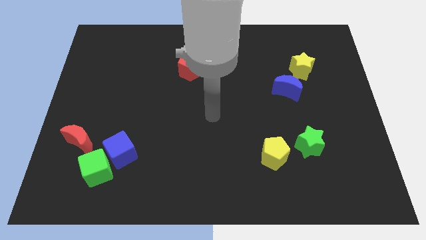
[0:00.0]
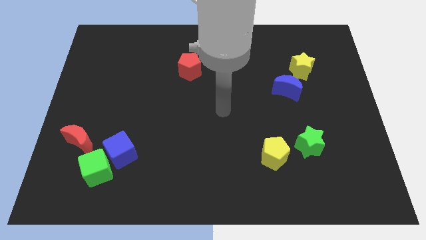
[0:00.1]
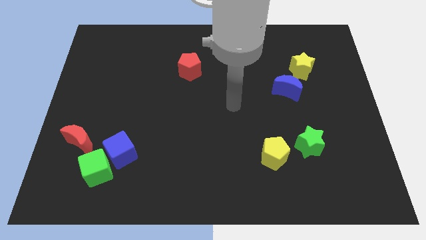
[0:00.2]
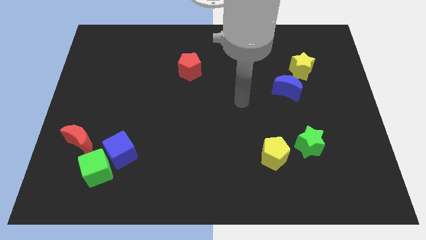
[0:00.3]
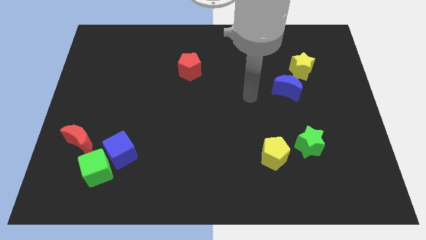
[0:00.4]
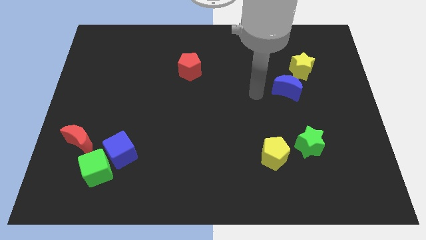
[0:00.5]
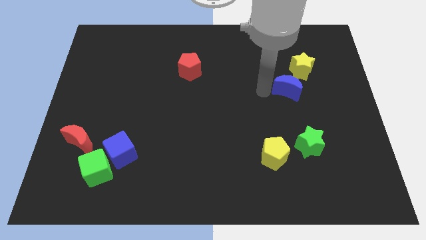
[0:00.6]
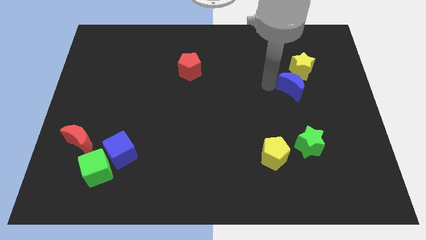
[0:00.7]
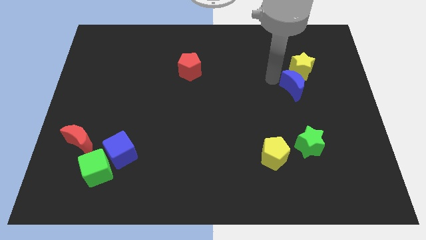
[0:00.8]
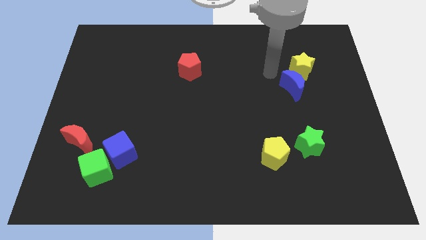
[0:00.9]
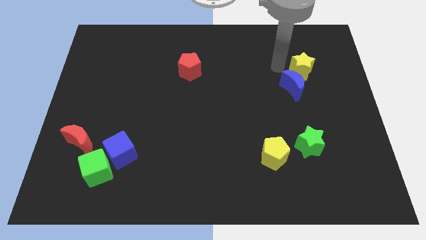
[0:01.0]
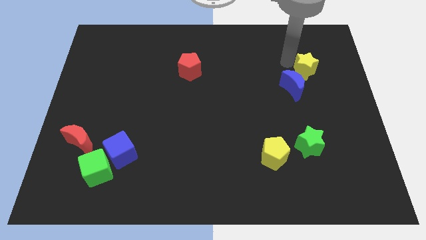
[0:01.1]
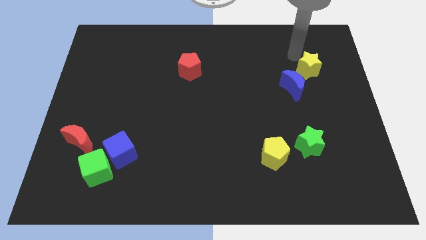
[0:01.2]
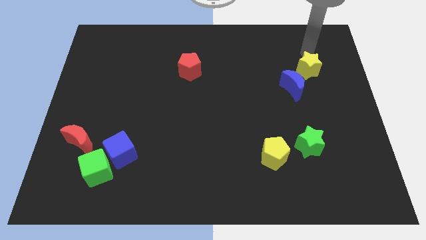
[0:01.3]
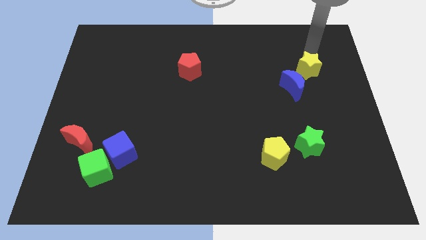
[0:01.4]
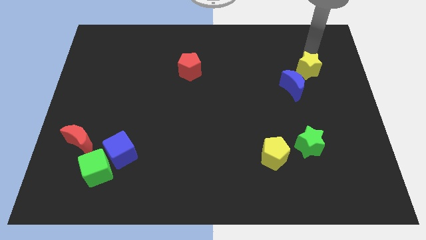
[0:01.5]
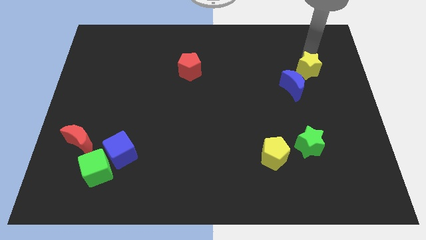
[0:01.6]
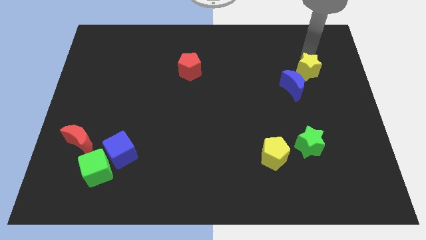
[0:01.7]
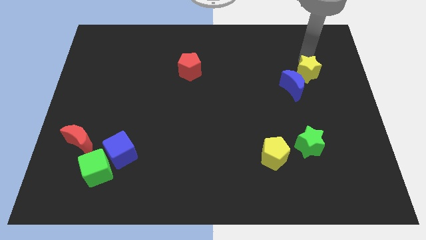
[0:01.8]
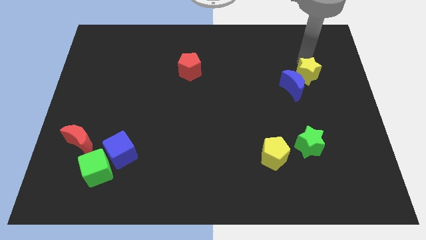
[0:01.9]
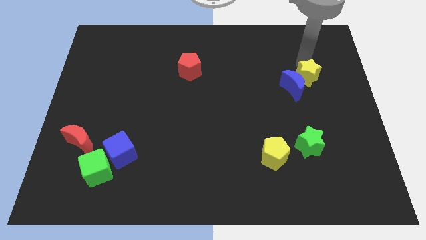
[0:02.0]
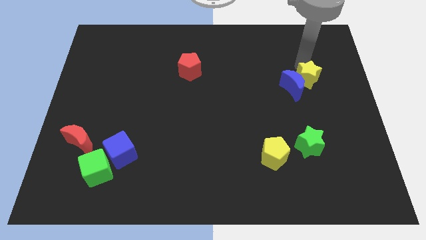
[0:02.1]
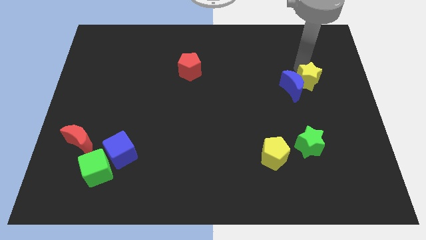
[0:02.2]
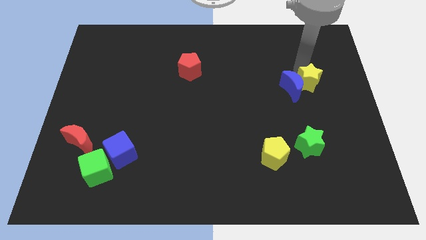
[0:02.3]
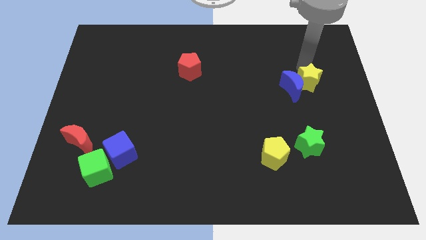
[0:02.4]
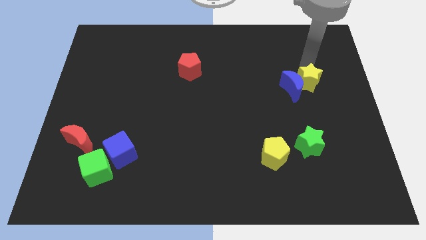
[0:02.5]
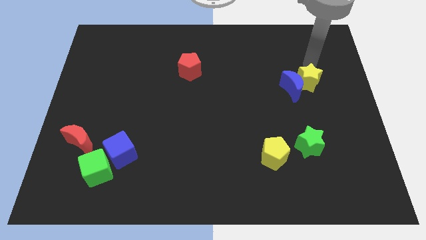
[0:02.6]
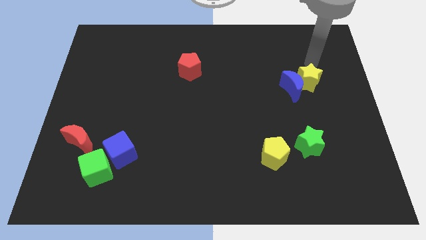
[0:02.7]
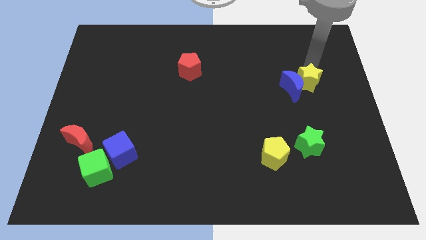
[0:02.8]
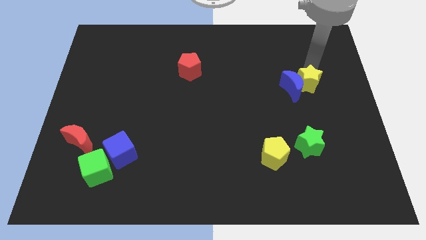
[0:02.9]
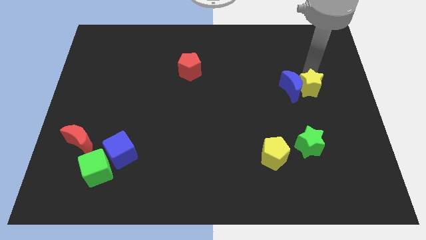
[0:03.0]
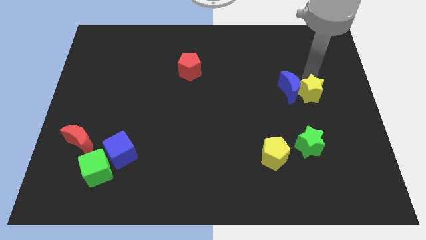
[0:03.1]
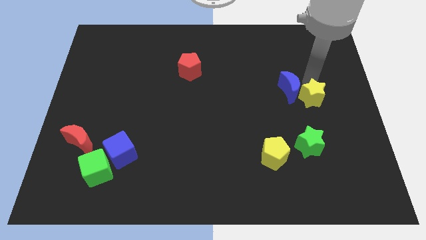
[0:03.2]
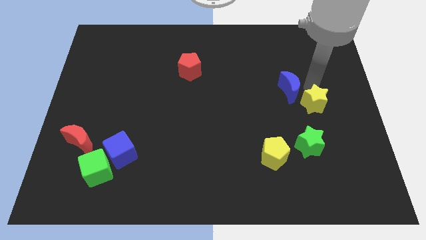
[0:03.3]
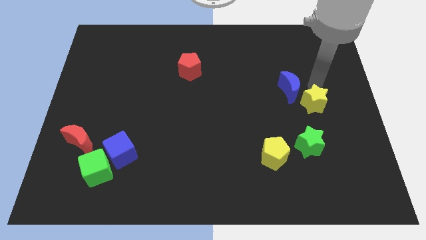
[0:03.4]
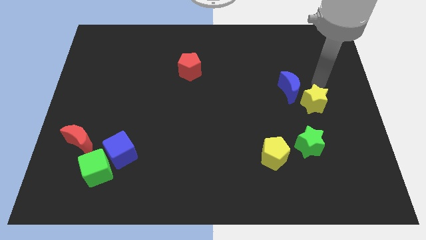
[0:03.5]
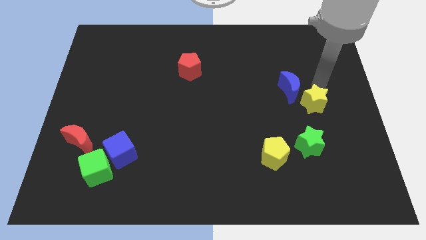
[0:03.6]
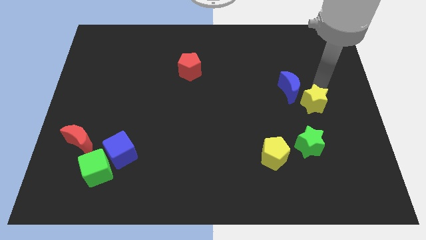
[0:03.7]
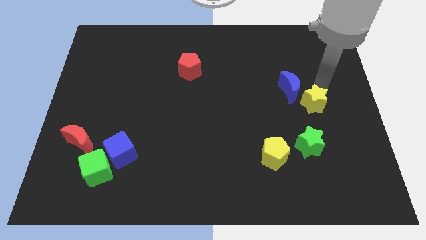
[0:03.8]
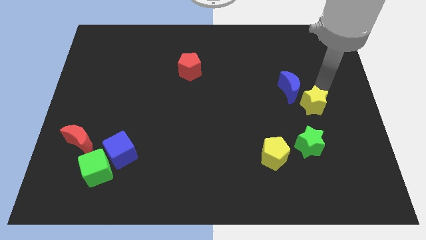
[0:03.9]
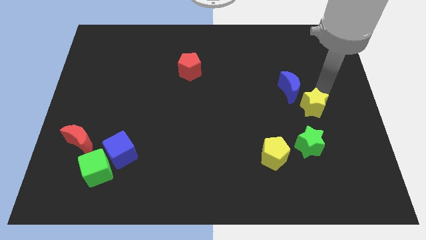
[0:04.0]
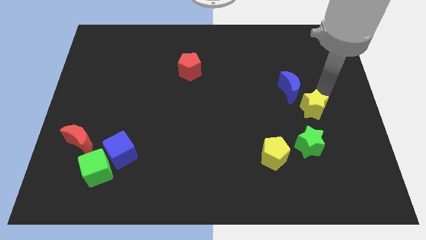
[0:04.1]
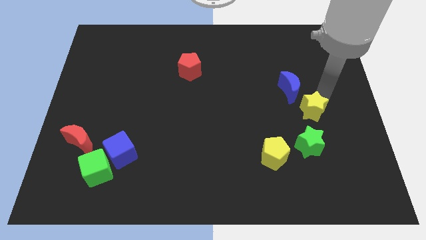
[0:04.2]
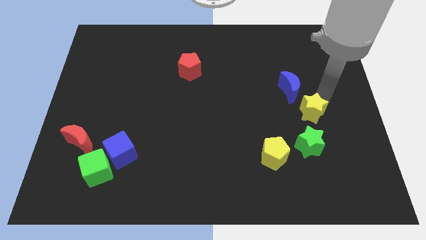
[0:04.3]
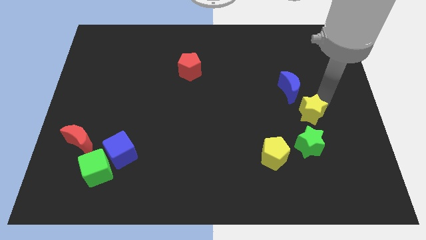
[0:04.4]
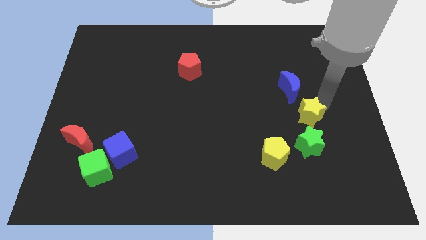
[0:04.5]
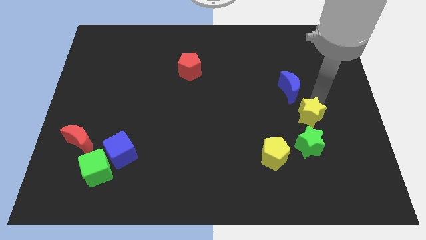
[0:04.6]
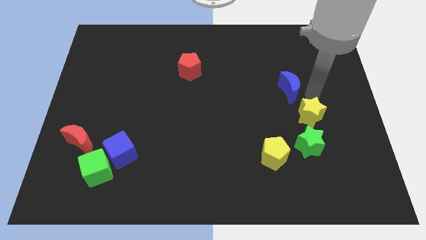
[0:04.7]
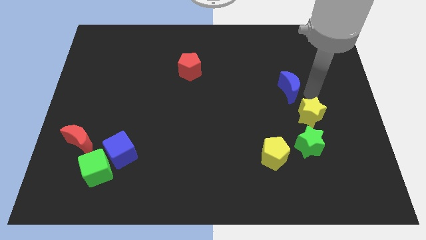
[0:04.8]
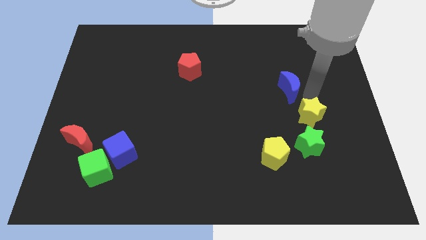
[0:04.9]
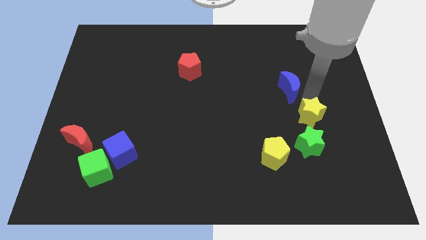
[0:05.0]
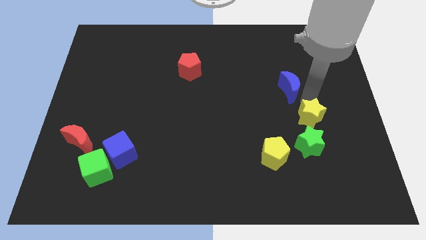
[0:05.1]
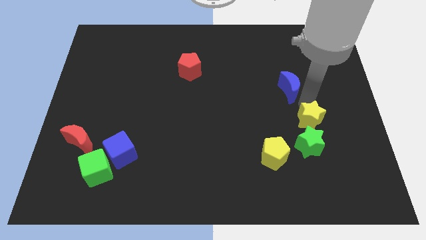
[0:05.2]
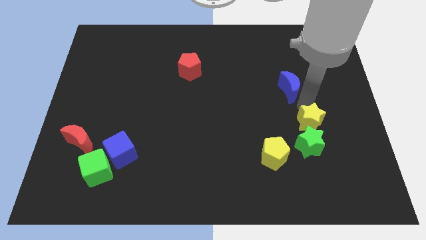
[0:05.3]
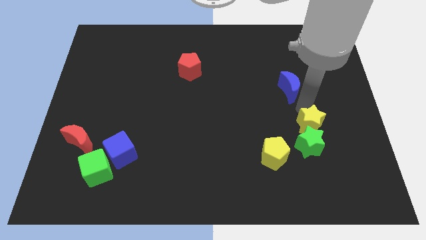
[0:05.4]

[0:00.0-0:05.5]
put the yellow star towards the green star

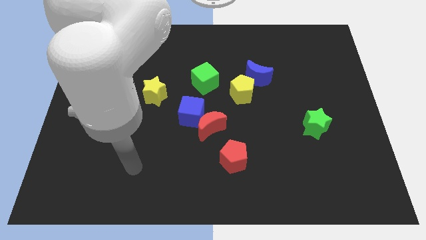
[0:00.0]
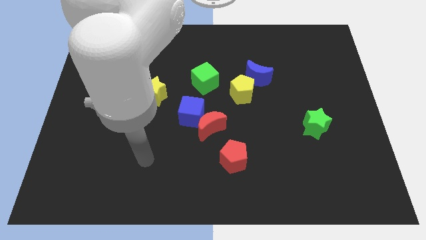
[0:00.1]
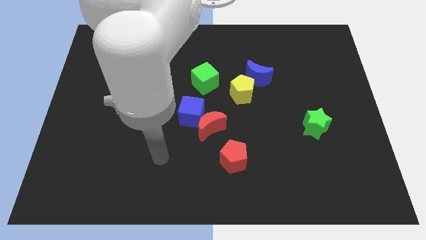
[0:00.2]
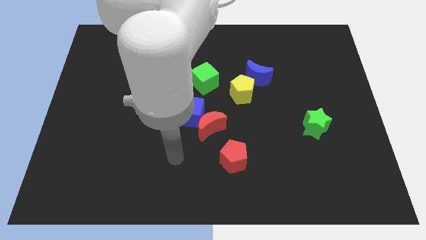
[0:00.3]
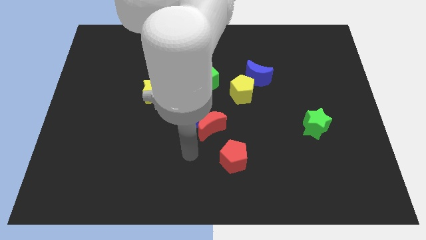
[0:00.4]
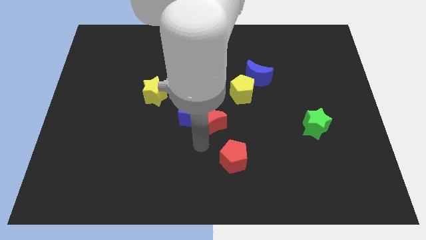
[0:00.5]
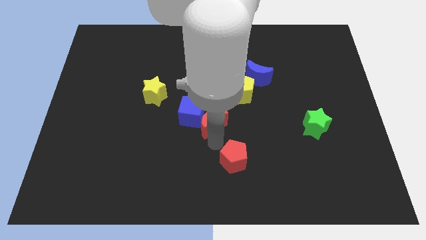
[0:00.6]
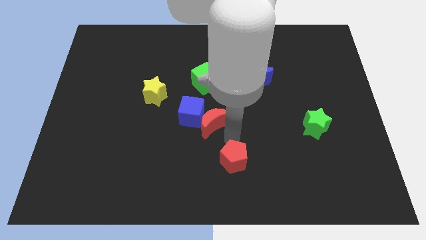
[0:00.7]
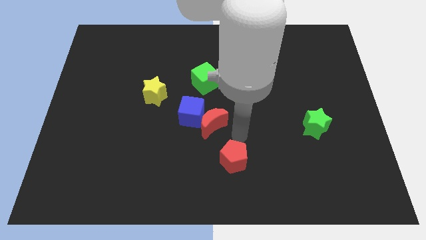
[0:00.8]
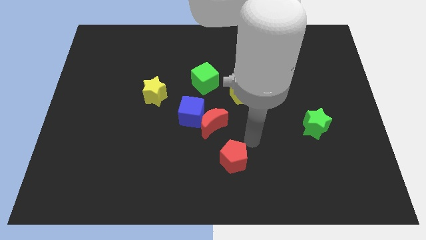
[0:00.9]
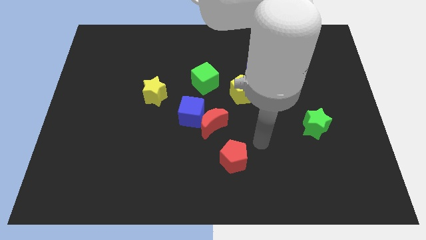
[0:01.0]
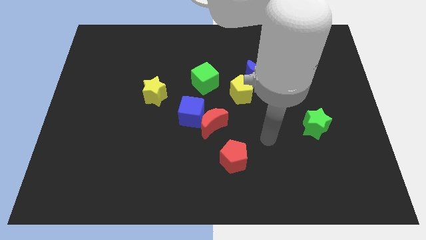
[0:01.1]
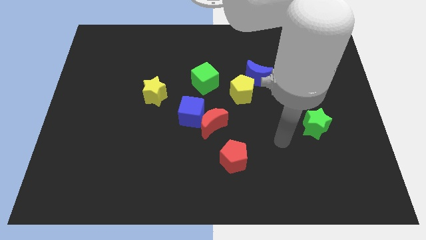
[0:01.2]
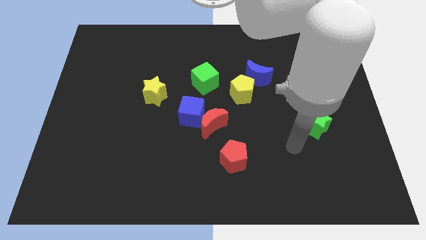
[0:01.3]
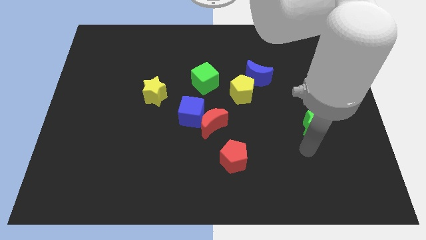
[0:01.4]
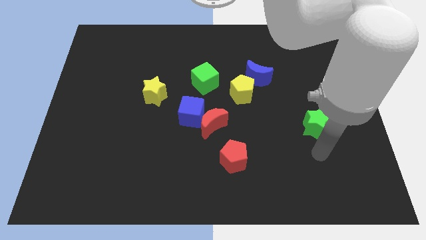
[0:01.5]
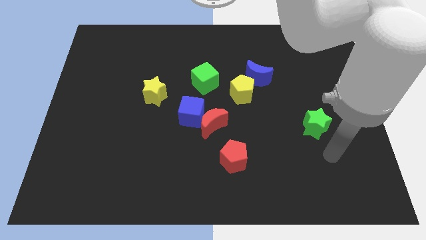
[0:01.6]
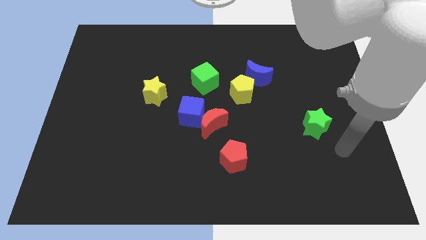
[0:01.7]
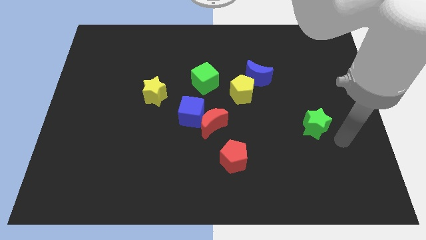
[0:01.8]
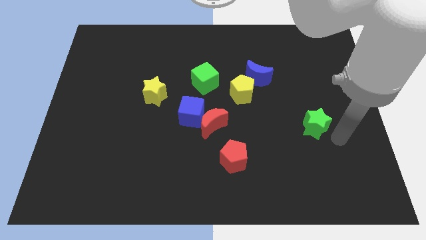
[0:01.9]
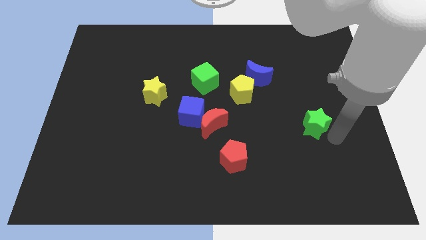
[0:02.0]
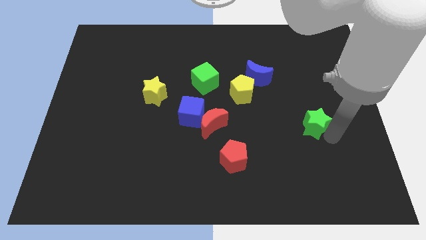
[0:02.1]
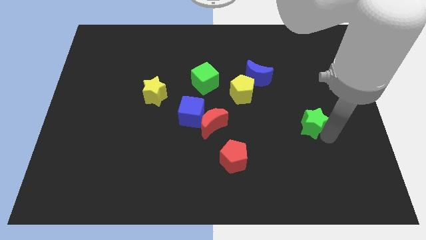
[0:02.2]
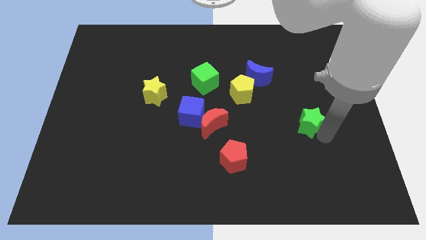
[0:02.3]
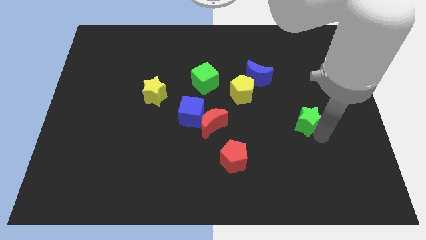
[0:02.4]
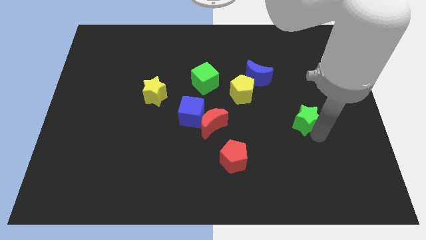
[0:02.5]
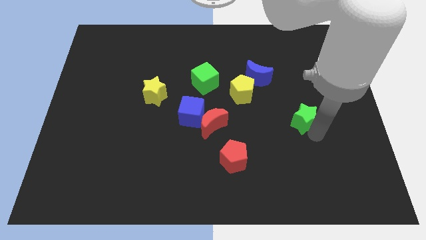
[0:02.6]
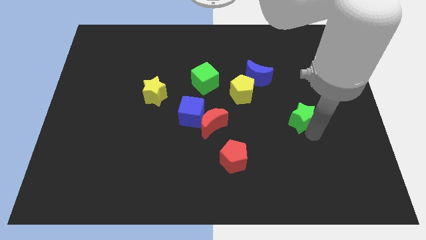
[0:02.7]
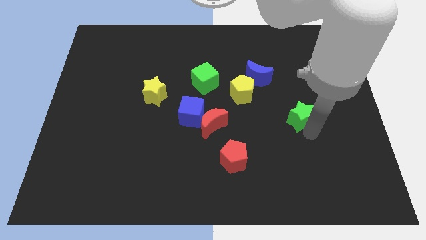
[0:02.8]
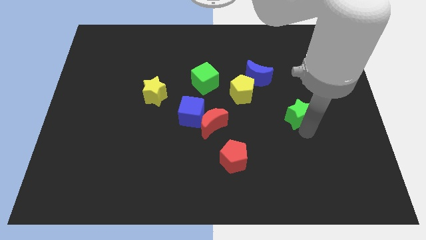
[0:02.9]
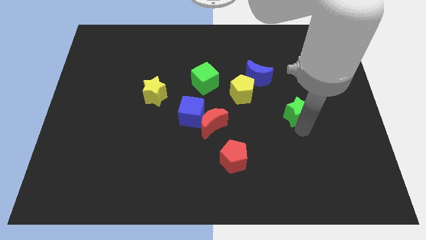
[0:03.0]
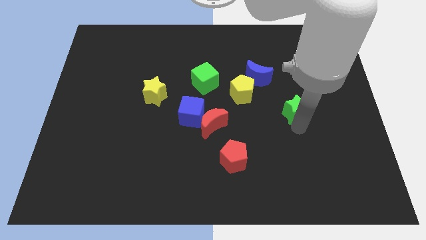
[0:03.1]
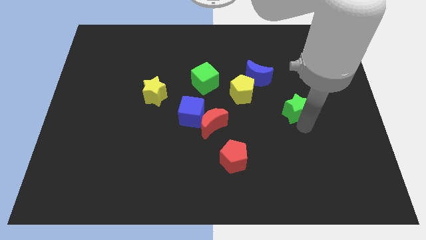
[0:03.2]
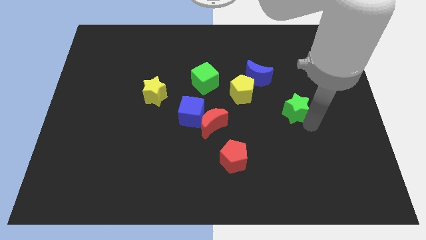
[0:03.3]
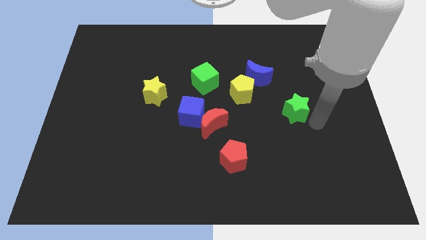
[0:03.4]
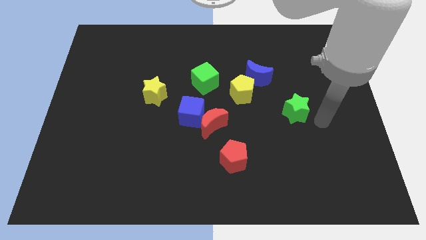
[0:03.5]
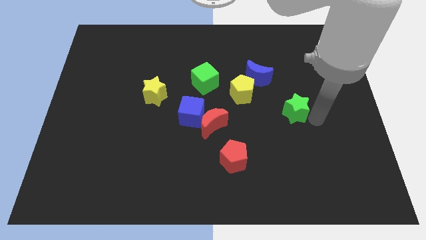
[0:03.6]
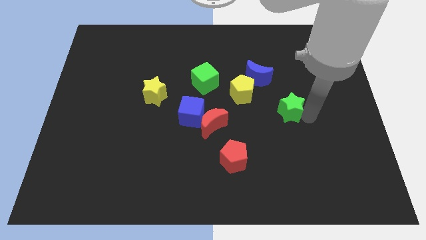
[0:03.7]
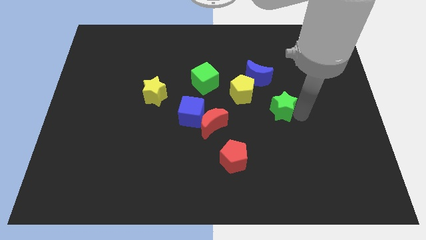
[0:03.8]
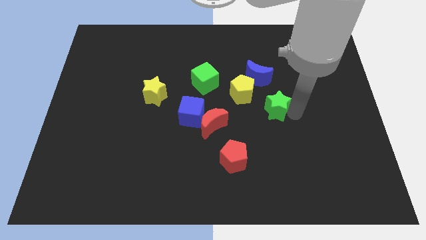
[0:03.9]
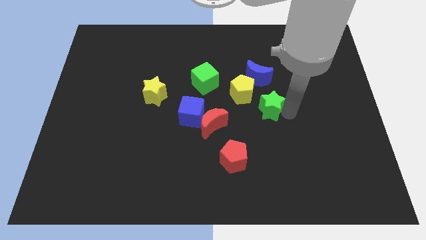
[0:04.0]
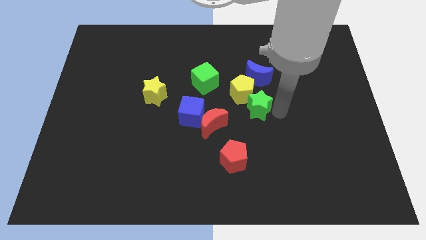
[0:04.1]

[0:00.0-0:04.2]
slide the green star towards the yellow pentagon
